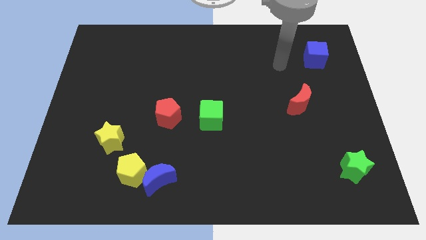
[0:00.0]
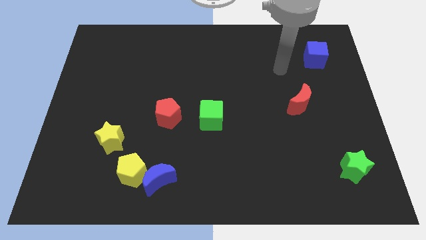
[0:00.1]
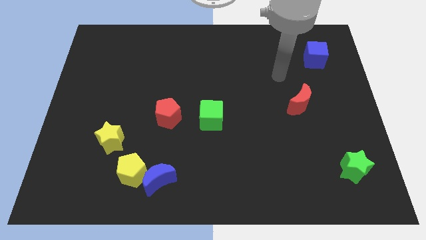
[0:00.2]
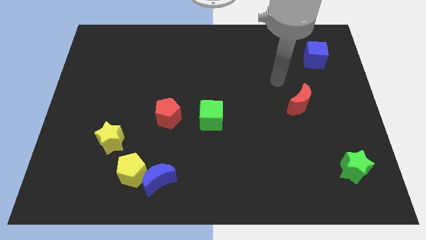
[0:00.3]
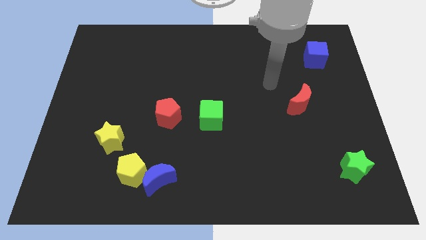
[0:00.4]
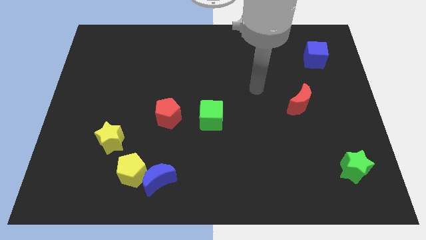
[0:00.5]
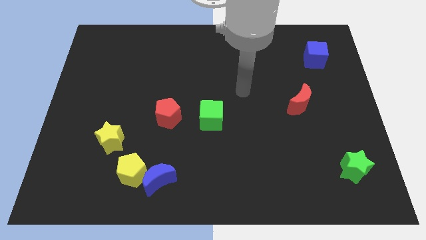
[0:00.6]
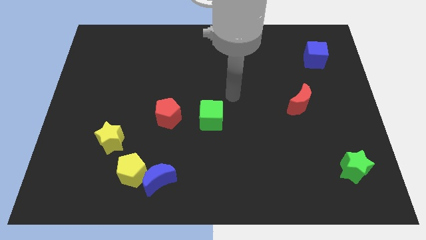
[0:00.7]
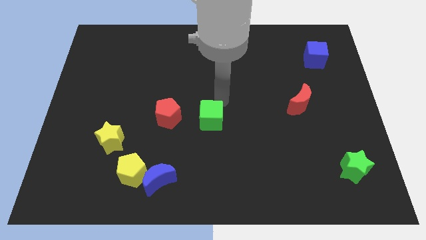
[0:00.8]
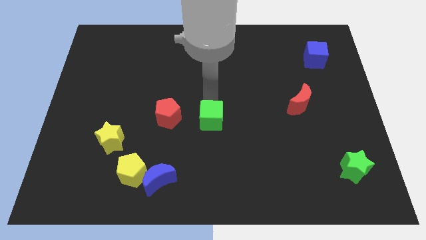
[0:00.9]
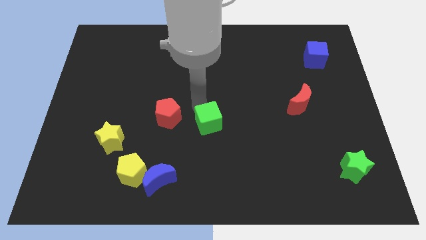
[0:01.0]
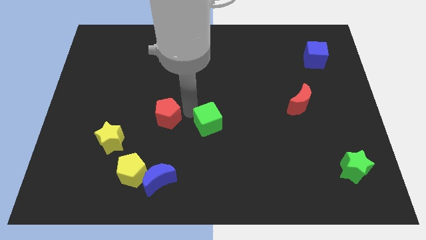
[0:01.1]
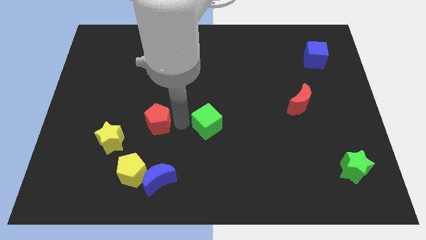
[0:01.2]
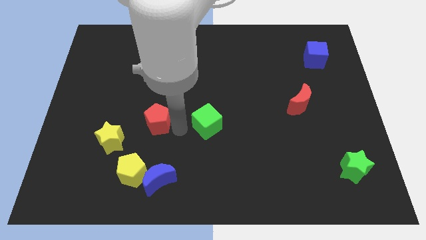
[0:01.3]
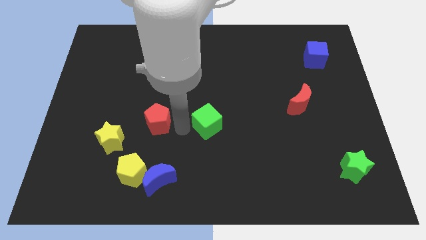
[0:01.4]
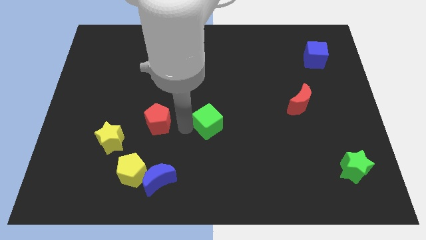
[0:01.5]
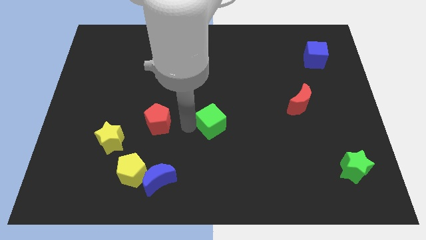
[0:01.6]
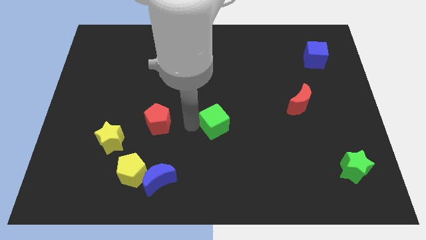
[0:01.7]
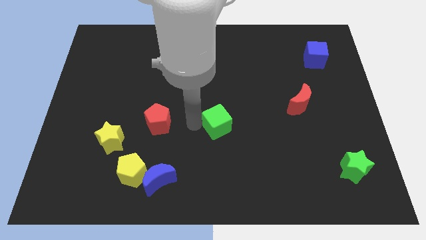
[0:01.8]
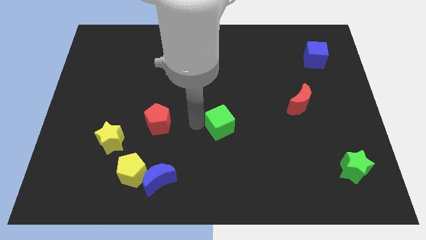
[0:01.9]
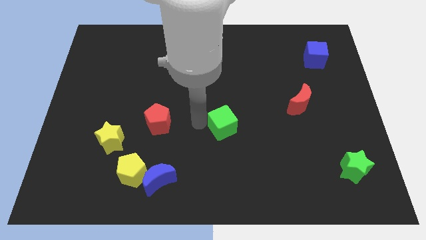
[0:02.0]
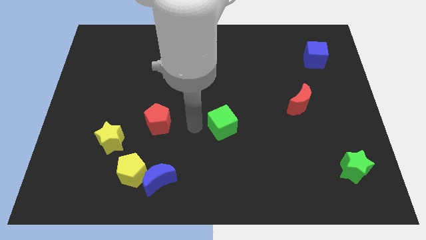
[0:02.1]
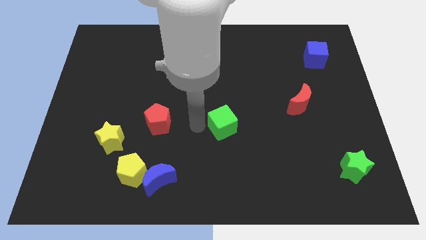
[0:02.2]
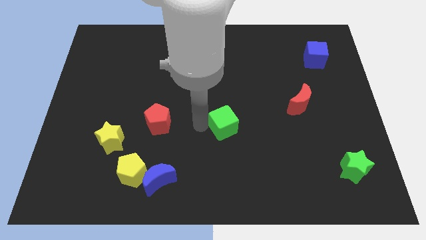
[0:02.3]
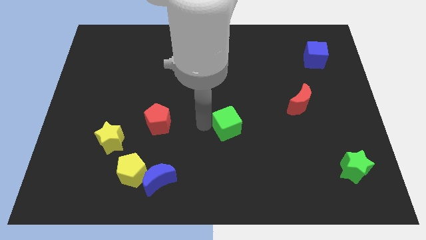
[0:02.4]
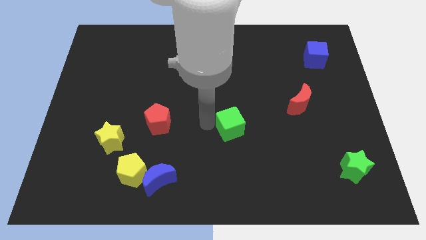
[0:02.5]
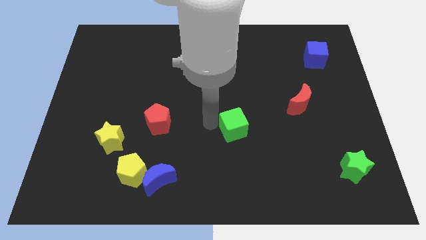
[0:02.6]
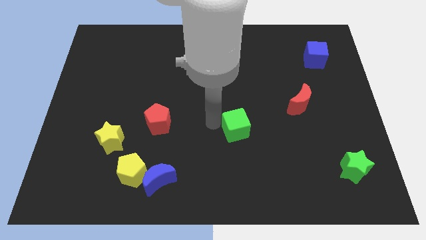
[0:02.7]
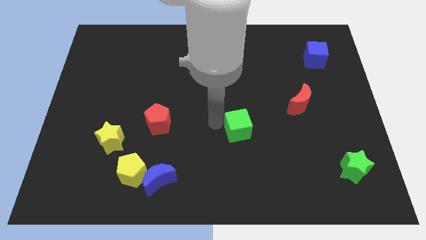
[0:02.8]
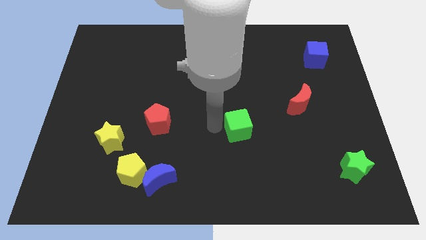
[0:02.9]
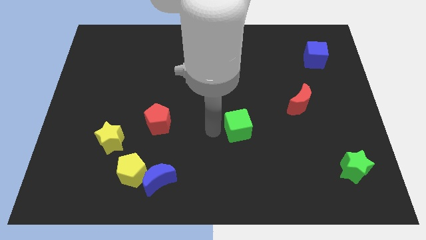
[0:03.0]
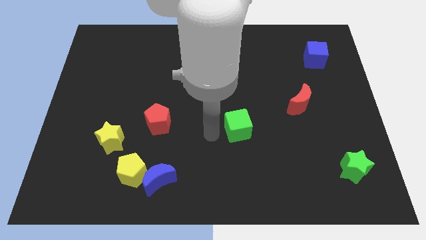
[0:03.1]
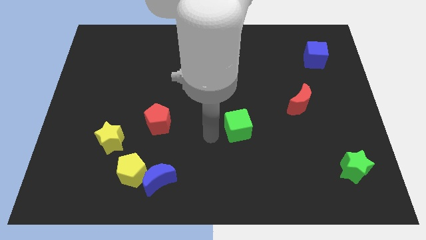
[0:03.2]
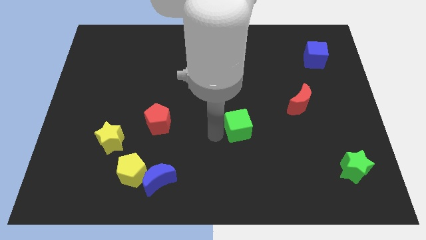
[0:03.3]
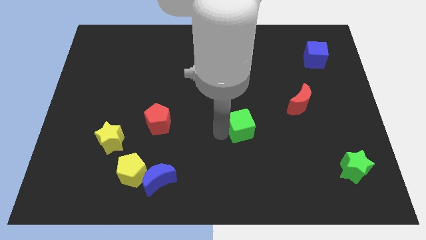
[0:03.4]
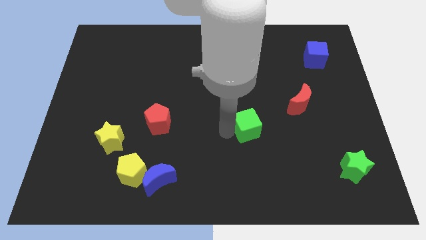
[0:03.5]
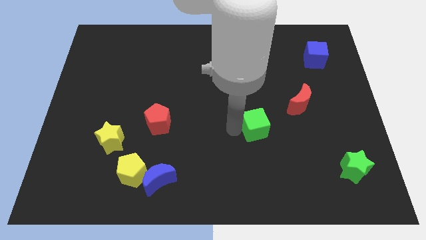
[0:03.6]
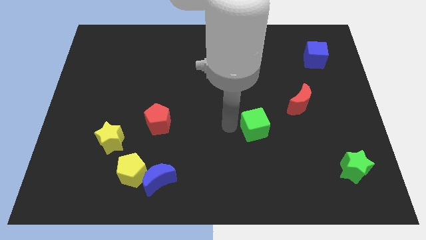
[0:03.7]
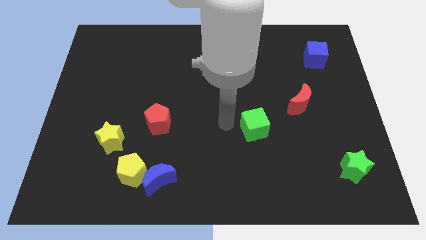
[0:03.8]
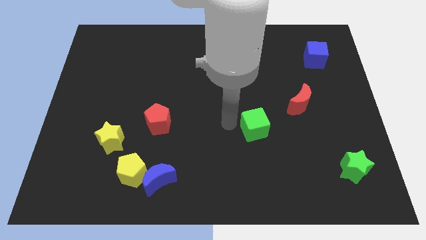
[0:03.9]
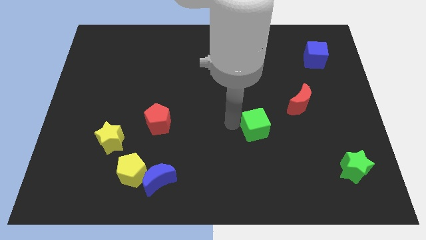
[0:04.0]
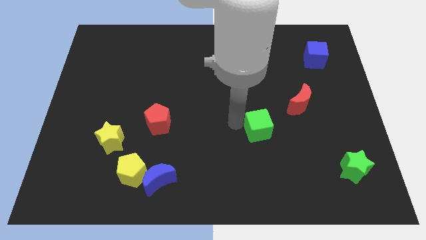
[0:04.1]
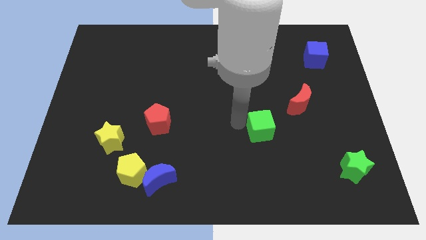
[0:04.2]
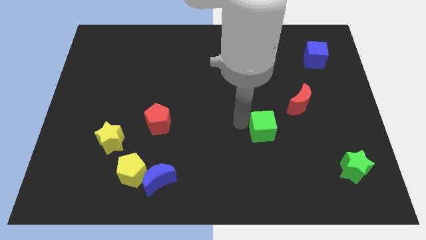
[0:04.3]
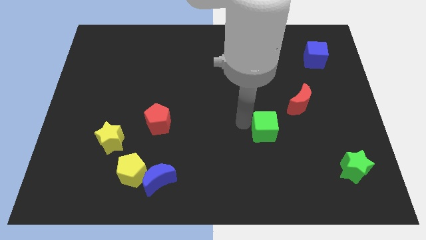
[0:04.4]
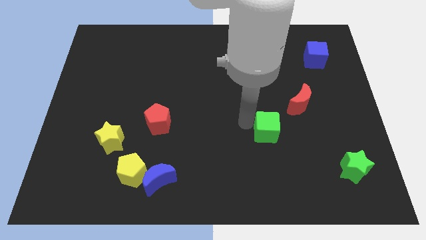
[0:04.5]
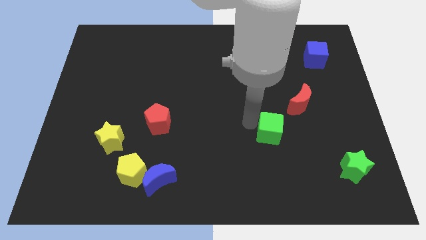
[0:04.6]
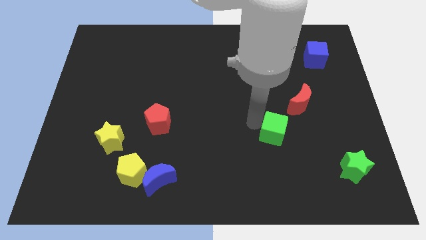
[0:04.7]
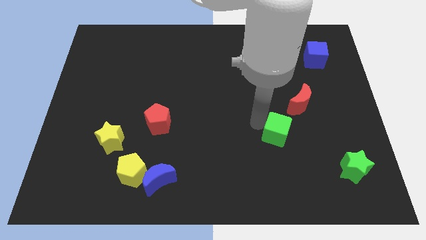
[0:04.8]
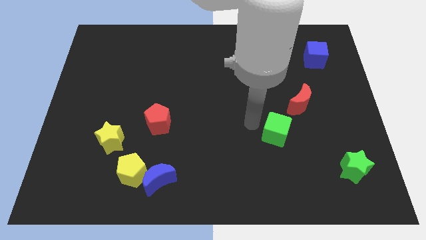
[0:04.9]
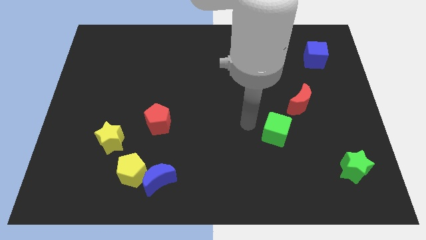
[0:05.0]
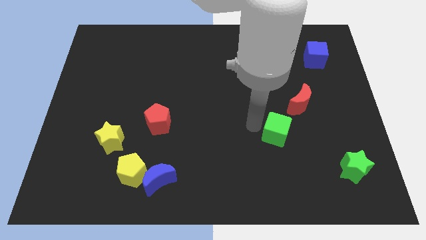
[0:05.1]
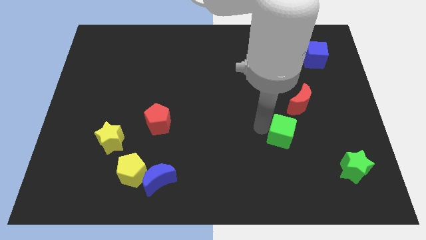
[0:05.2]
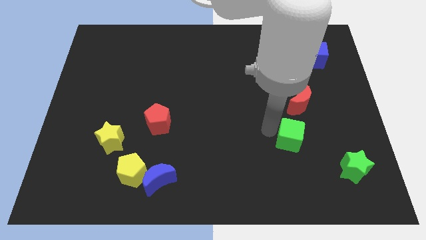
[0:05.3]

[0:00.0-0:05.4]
put the green cube below the red moon

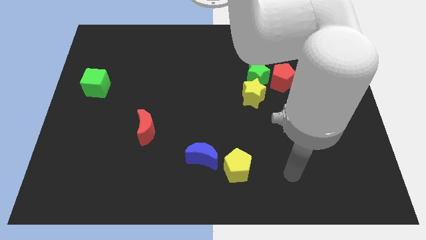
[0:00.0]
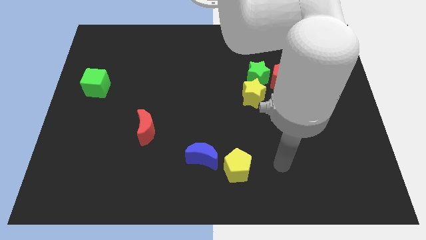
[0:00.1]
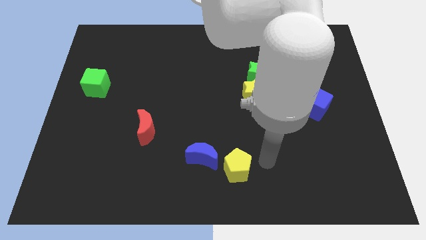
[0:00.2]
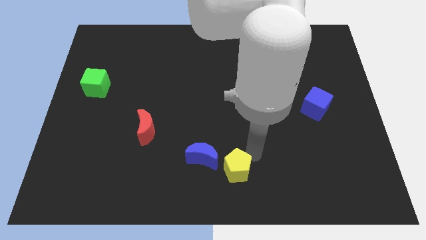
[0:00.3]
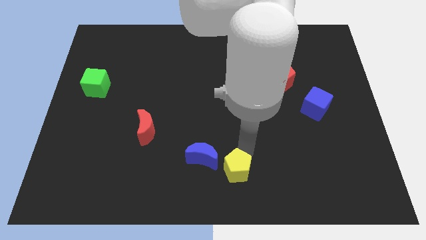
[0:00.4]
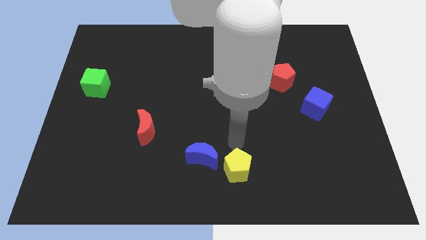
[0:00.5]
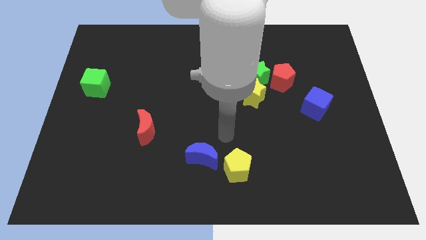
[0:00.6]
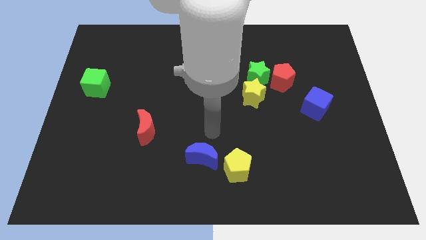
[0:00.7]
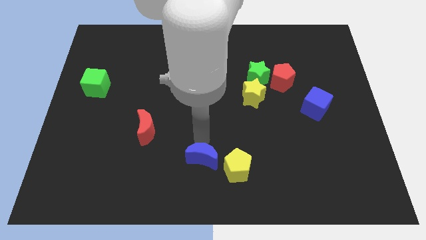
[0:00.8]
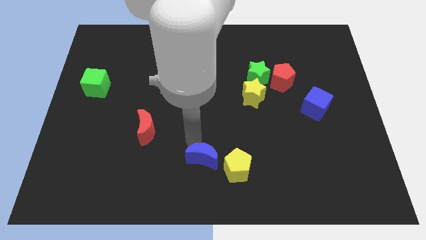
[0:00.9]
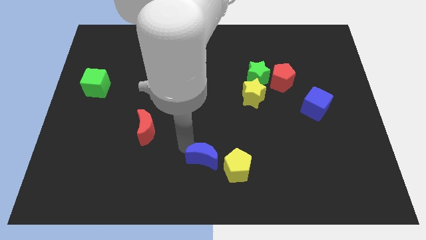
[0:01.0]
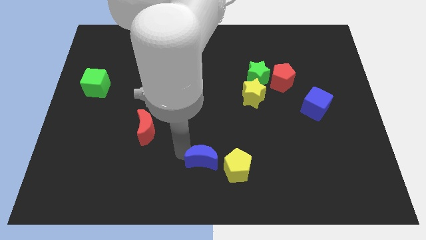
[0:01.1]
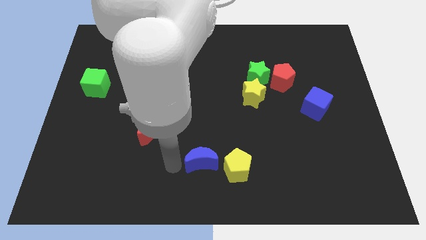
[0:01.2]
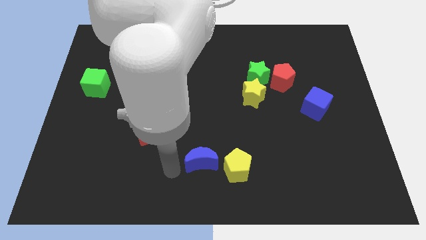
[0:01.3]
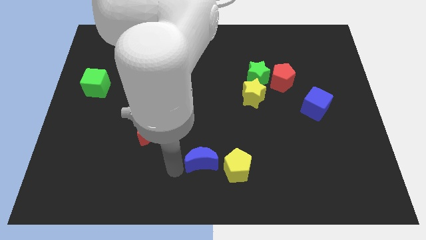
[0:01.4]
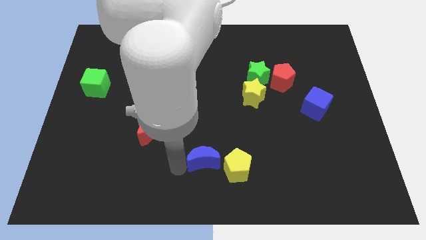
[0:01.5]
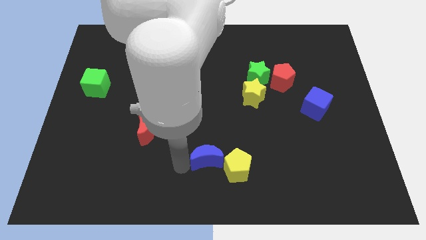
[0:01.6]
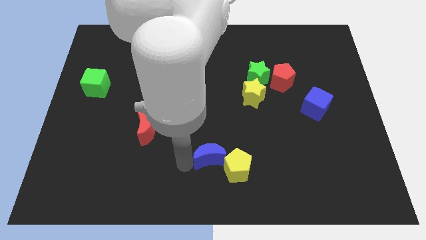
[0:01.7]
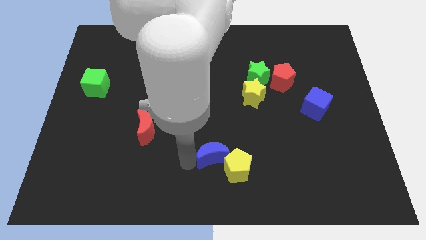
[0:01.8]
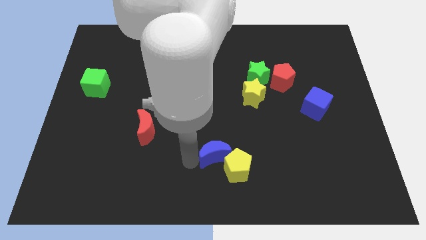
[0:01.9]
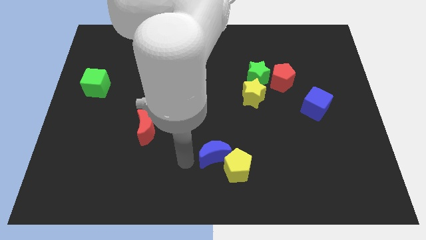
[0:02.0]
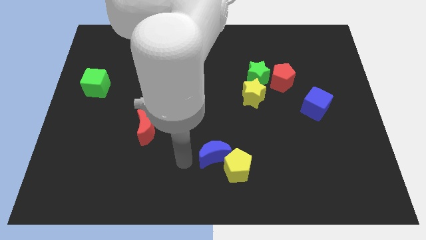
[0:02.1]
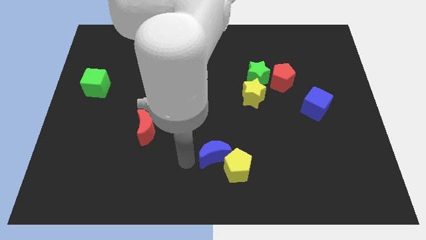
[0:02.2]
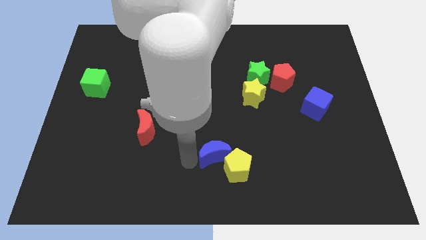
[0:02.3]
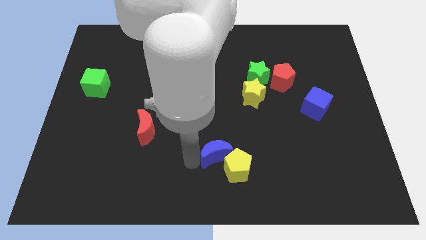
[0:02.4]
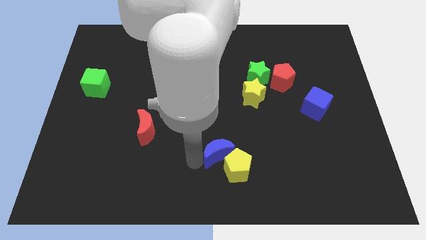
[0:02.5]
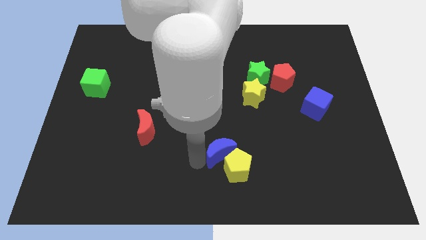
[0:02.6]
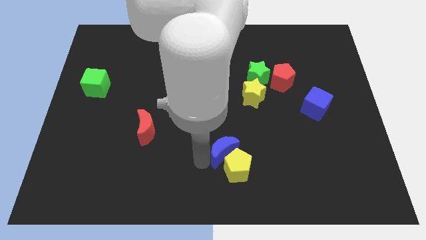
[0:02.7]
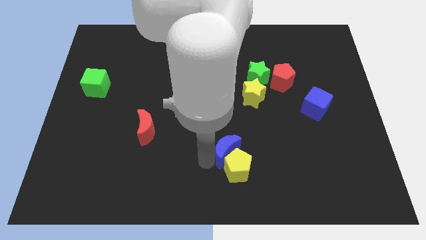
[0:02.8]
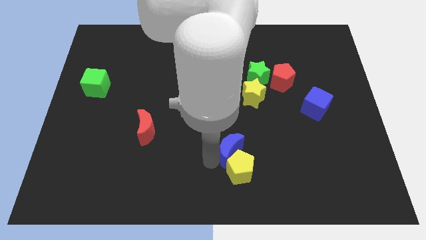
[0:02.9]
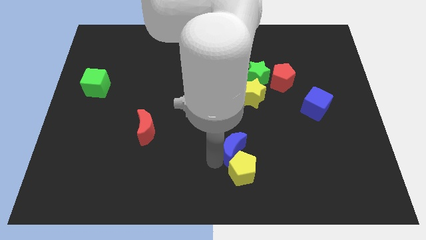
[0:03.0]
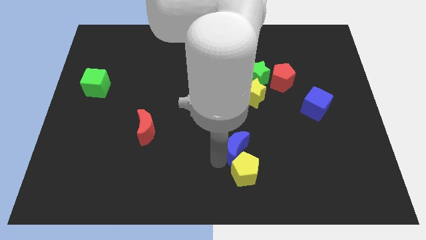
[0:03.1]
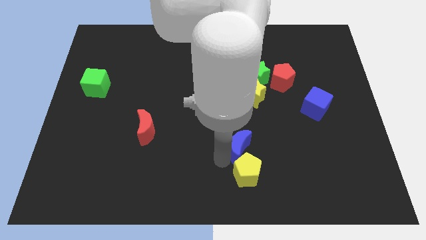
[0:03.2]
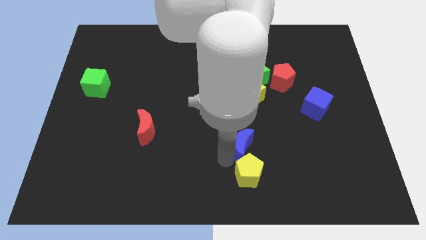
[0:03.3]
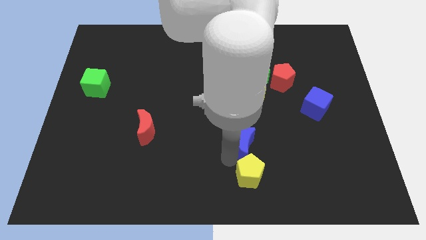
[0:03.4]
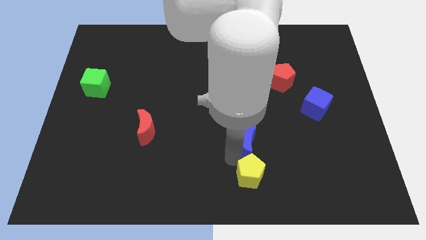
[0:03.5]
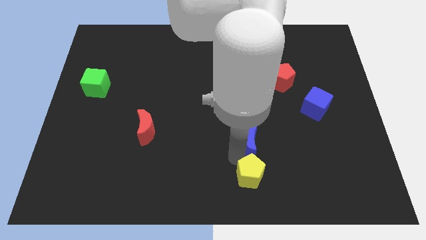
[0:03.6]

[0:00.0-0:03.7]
move the blue moon to the top right of the yellow pentagon
